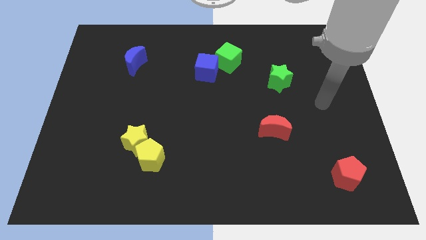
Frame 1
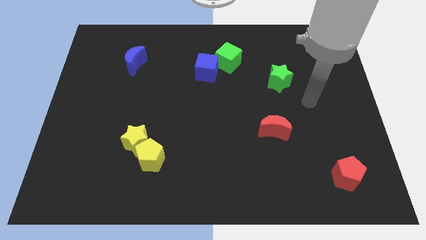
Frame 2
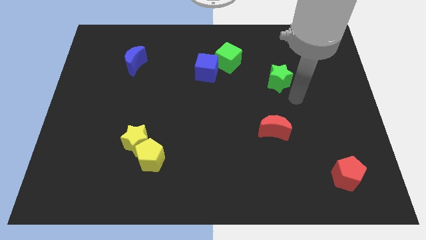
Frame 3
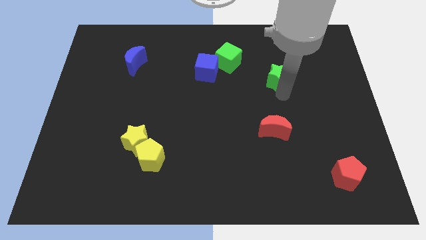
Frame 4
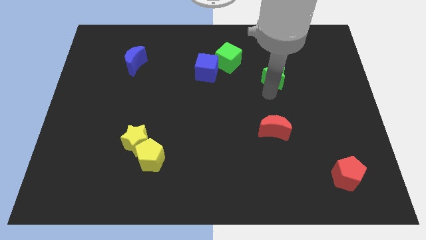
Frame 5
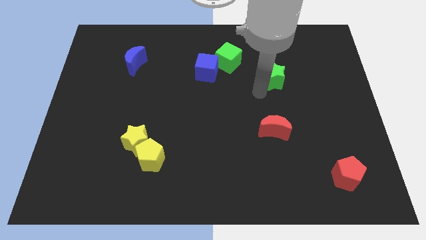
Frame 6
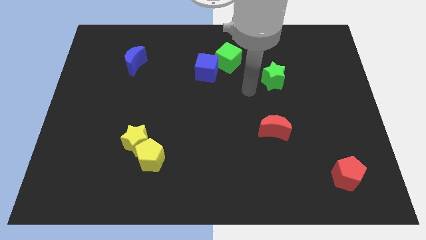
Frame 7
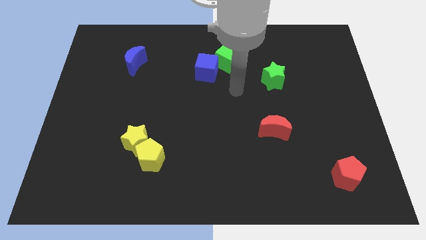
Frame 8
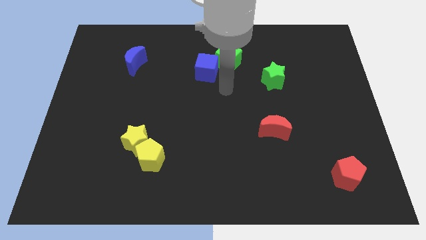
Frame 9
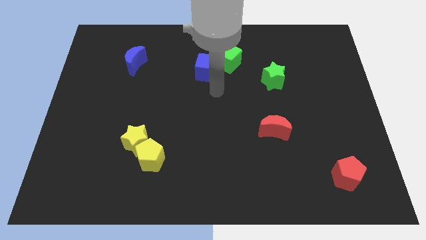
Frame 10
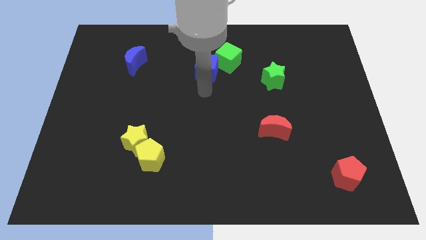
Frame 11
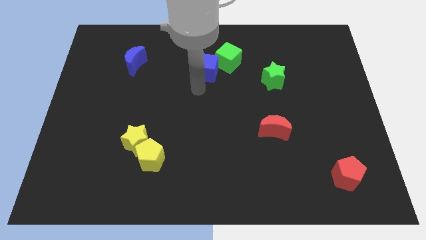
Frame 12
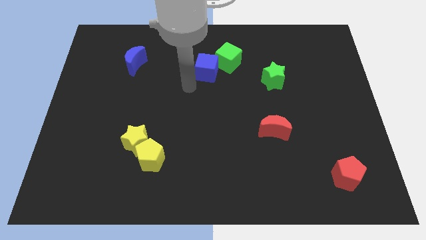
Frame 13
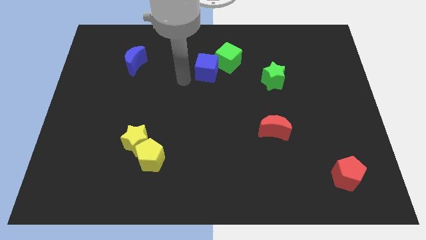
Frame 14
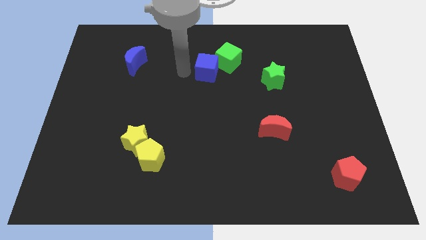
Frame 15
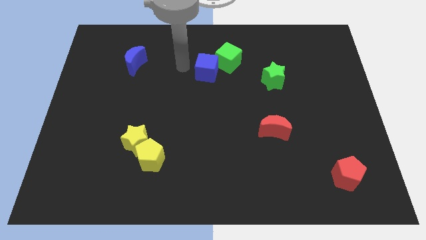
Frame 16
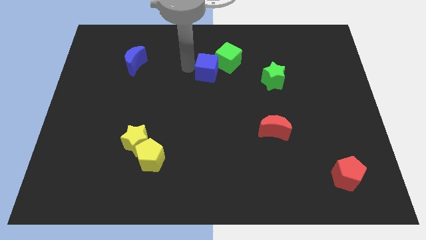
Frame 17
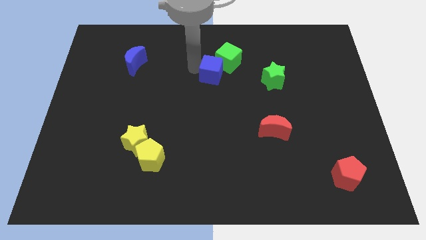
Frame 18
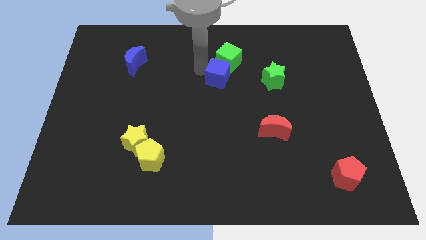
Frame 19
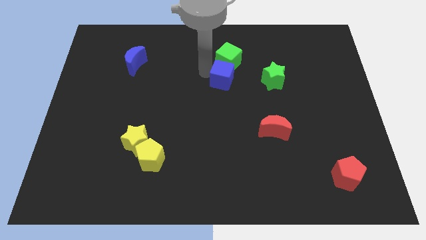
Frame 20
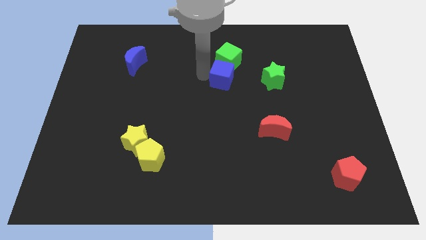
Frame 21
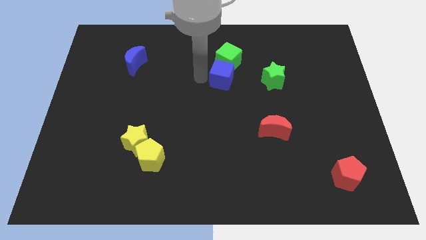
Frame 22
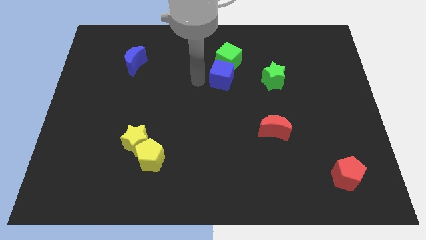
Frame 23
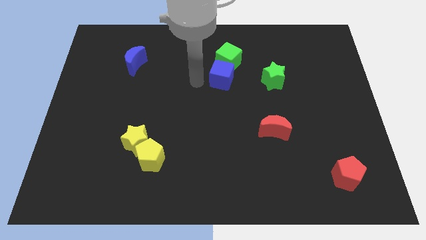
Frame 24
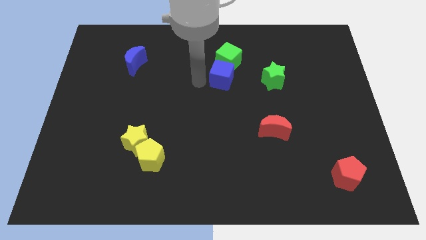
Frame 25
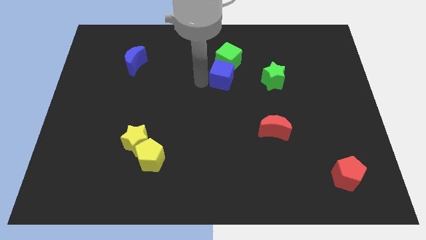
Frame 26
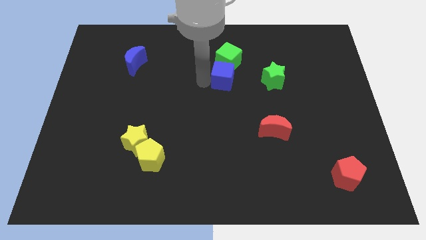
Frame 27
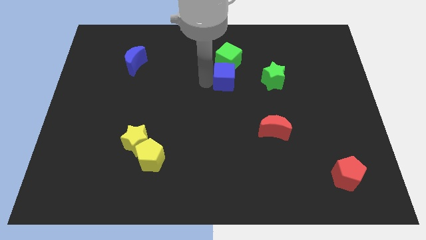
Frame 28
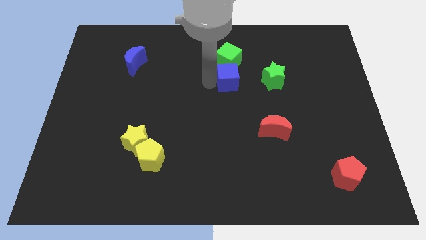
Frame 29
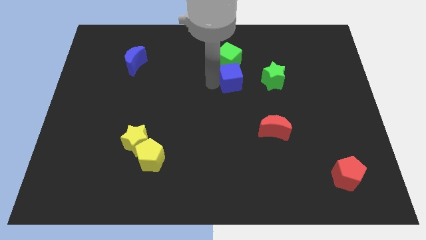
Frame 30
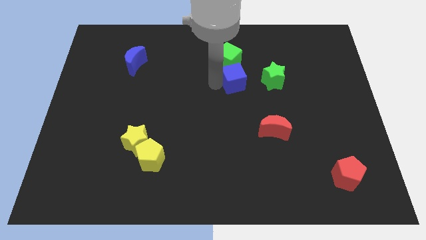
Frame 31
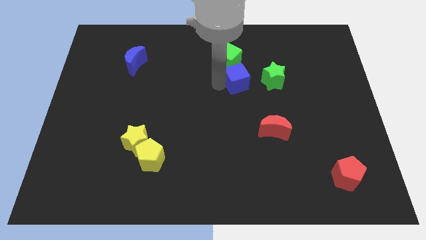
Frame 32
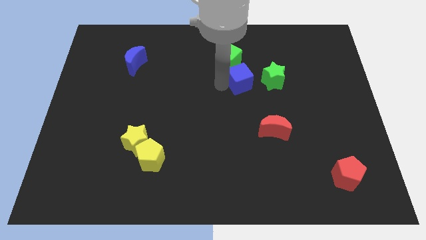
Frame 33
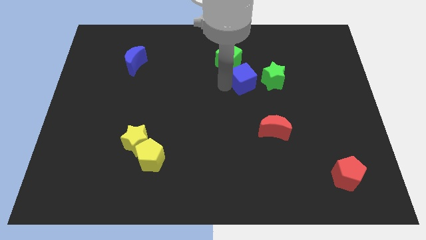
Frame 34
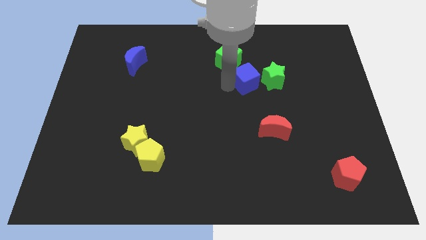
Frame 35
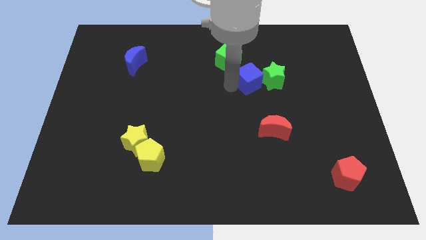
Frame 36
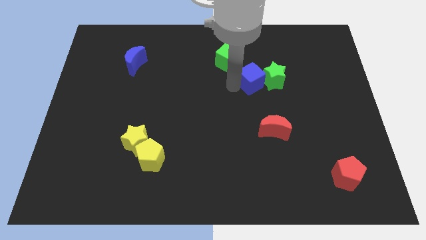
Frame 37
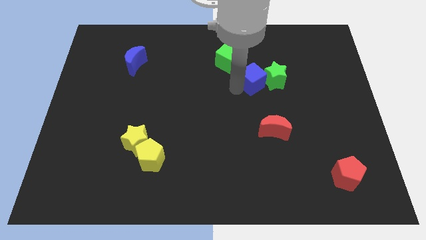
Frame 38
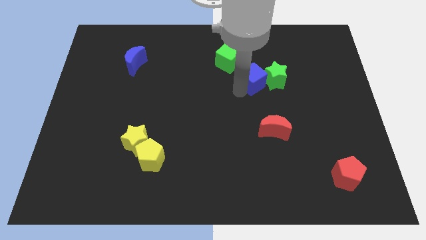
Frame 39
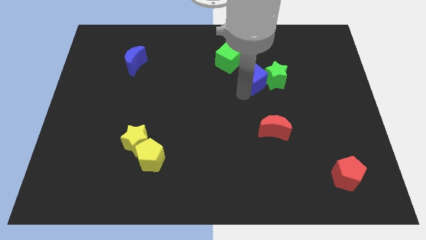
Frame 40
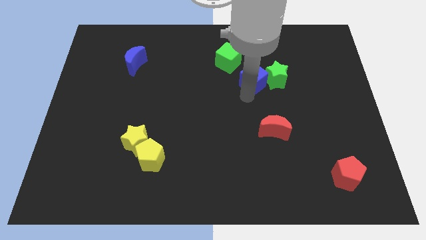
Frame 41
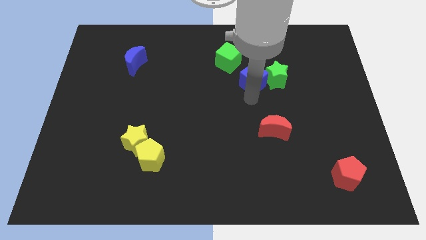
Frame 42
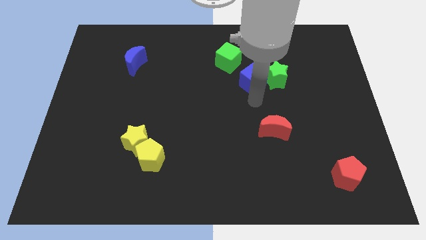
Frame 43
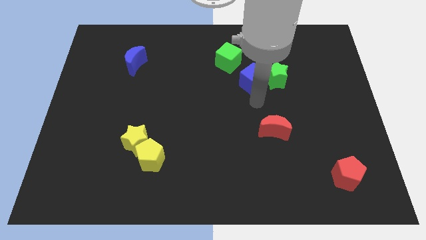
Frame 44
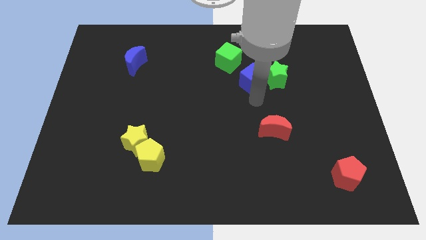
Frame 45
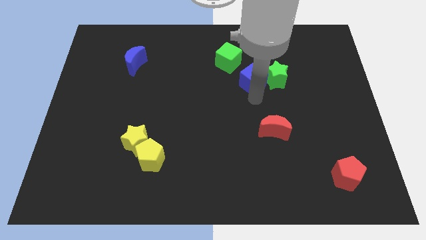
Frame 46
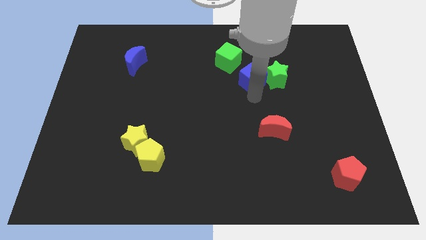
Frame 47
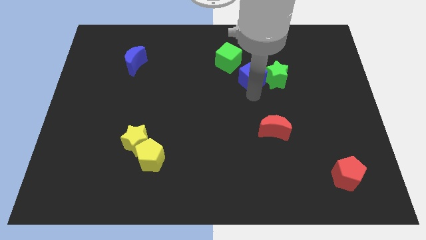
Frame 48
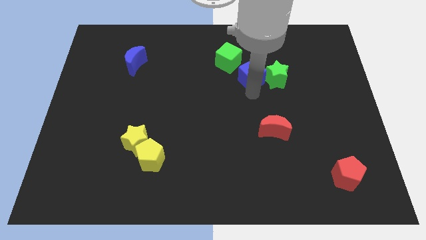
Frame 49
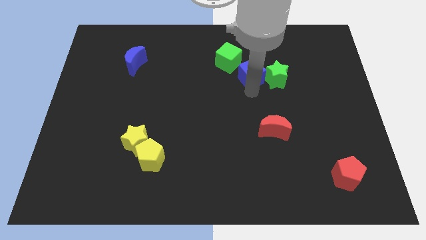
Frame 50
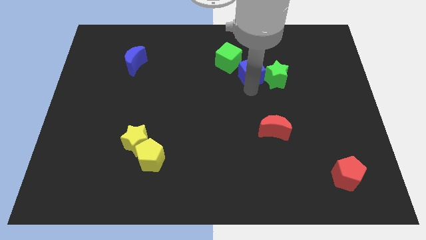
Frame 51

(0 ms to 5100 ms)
slide the blue cube to the right of the green cube

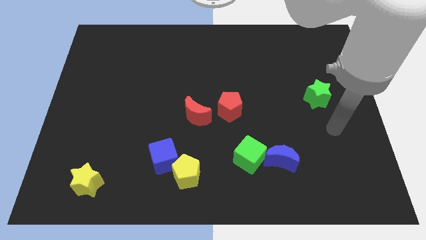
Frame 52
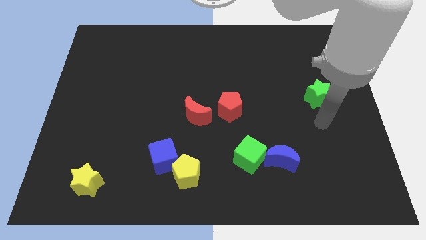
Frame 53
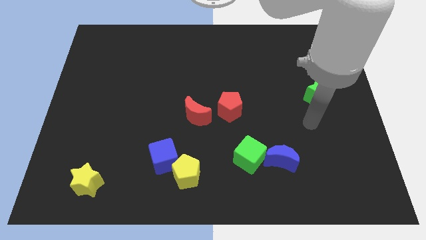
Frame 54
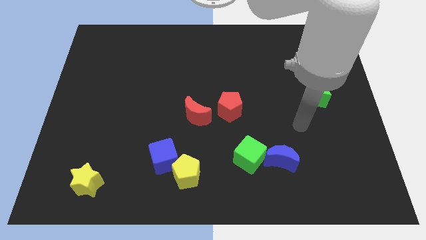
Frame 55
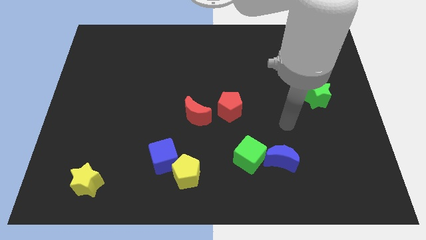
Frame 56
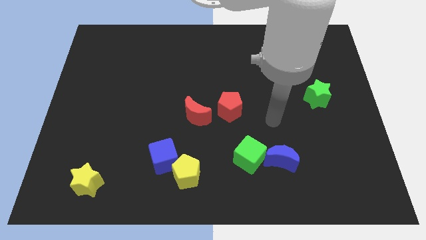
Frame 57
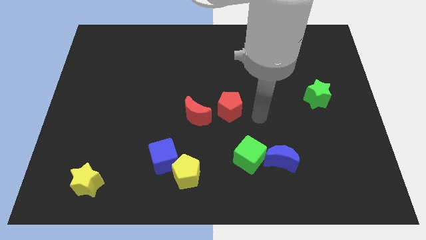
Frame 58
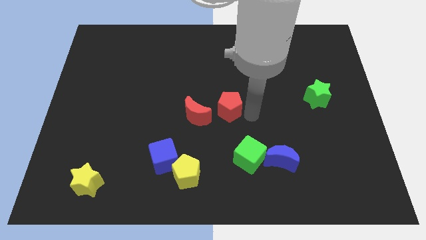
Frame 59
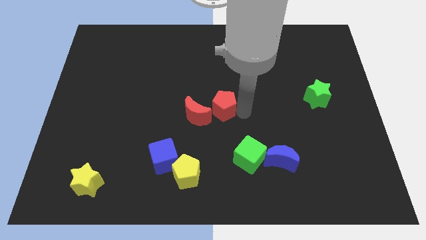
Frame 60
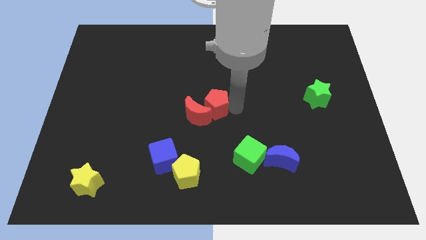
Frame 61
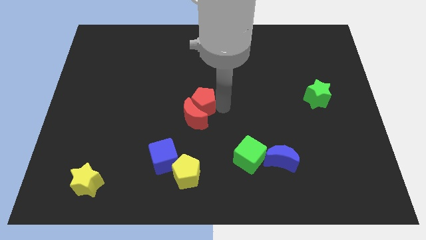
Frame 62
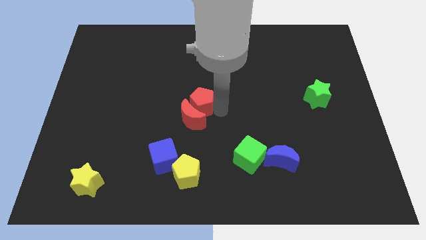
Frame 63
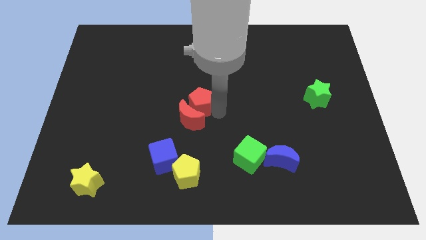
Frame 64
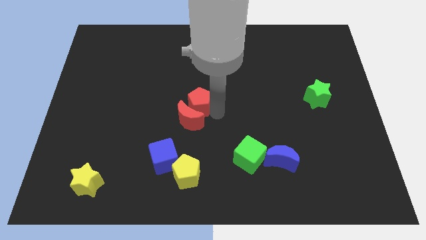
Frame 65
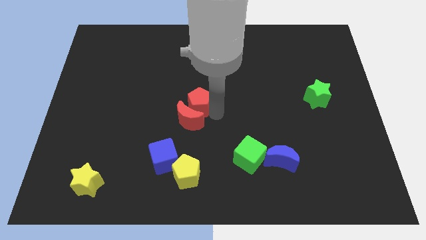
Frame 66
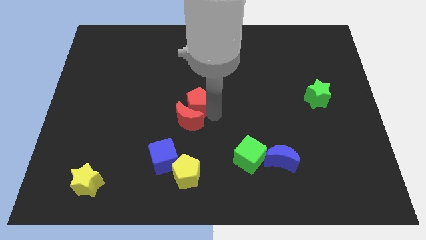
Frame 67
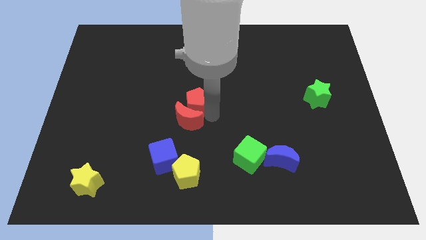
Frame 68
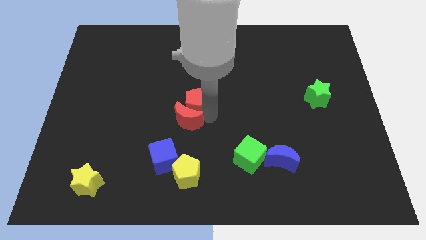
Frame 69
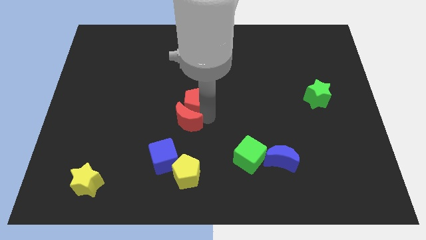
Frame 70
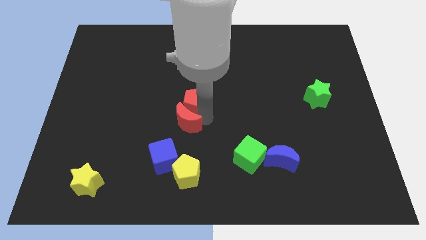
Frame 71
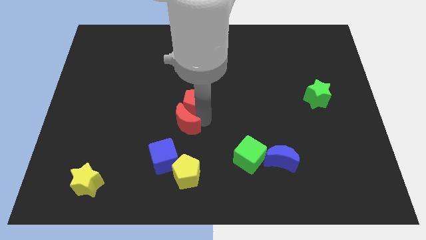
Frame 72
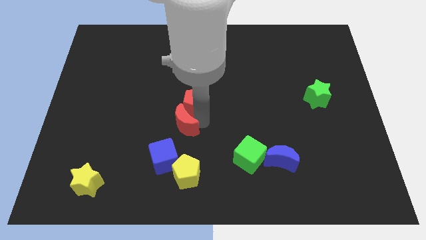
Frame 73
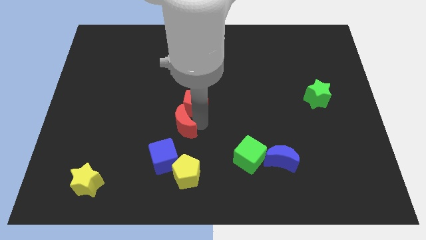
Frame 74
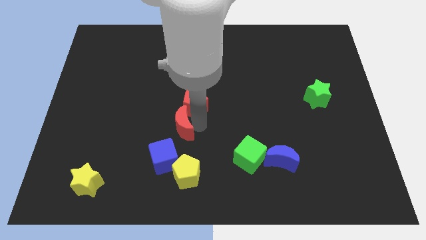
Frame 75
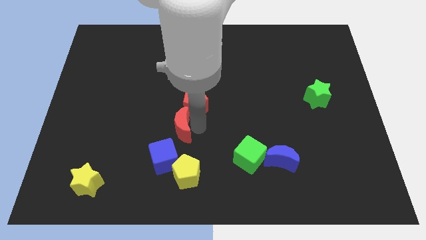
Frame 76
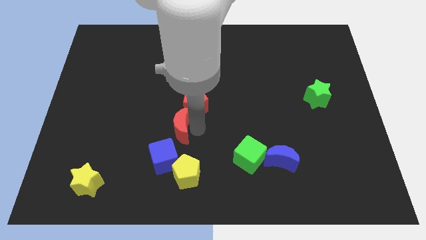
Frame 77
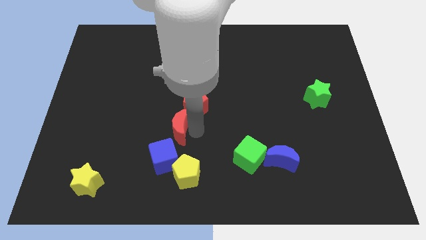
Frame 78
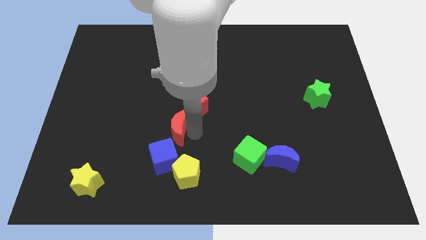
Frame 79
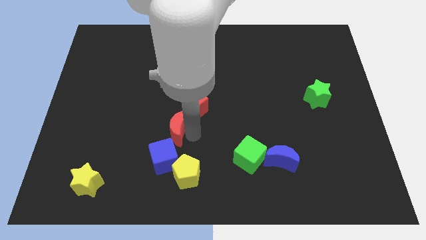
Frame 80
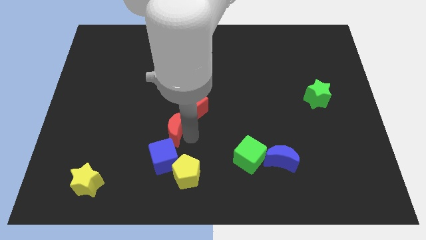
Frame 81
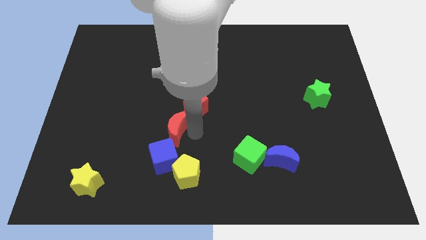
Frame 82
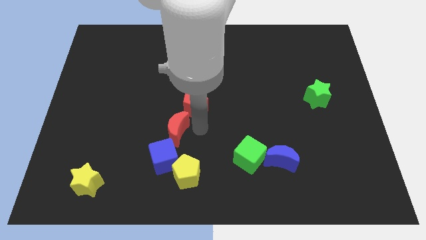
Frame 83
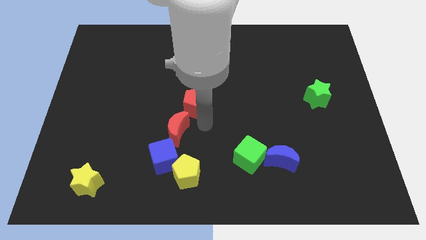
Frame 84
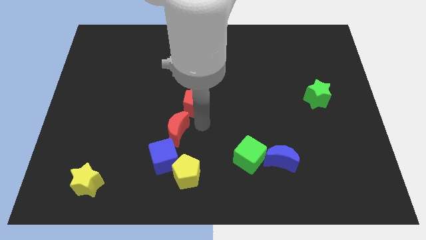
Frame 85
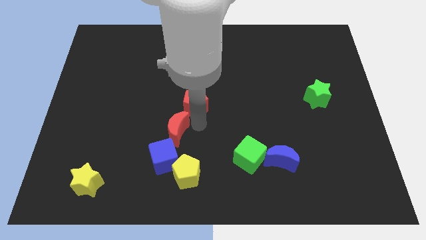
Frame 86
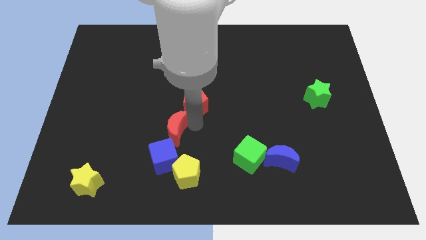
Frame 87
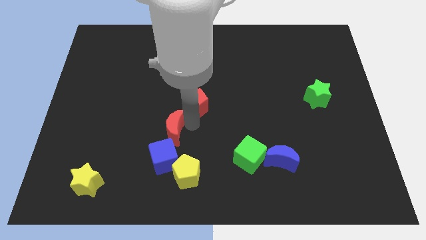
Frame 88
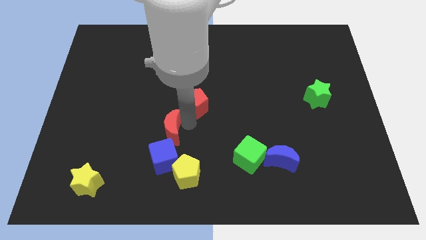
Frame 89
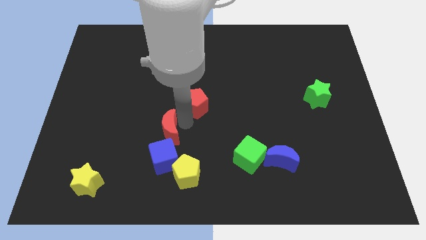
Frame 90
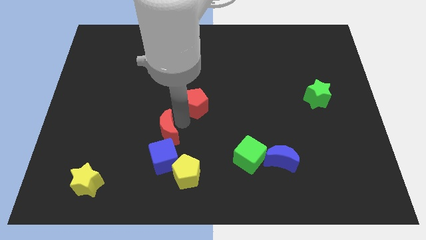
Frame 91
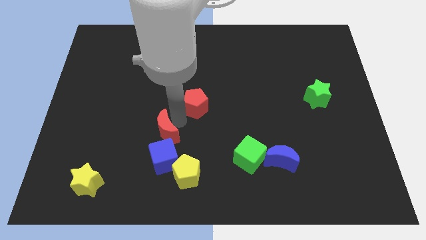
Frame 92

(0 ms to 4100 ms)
slide the red moon to the top left of the blue cube
